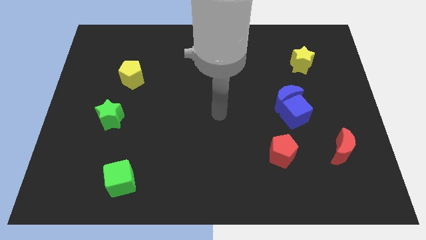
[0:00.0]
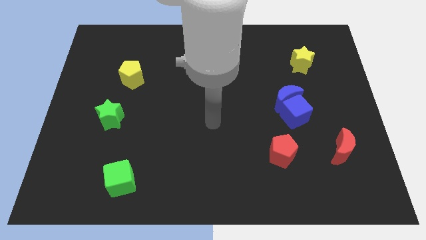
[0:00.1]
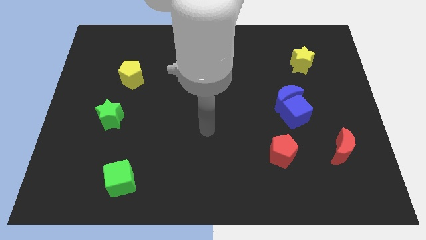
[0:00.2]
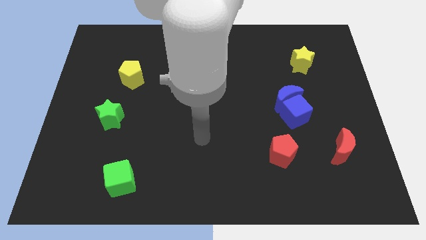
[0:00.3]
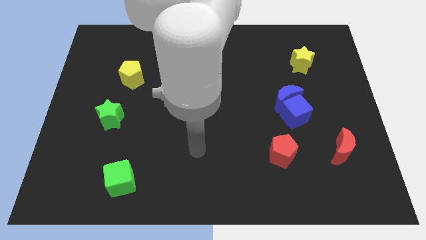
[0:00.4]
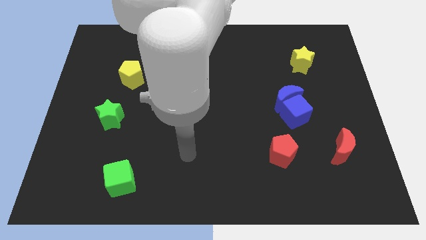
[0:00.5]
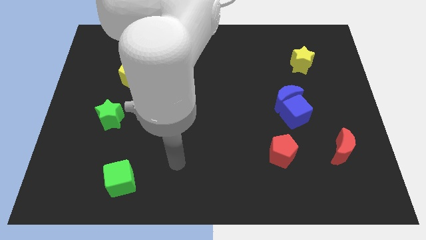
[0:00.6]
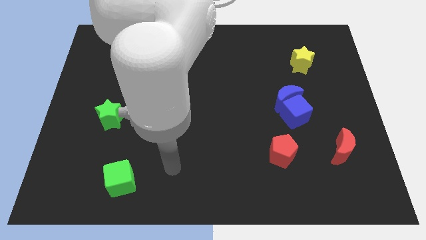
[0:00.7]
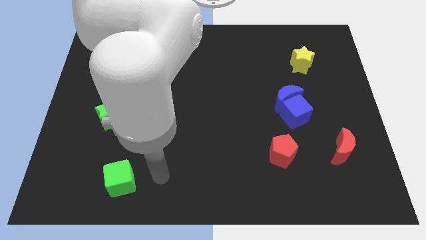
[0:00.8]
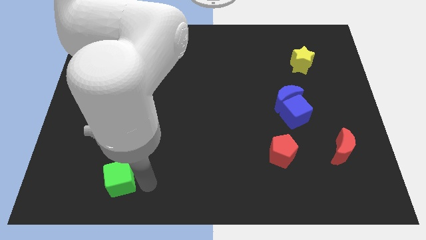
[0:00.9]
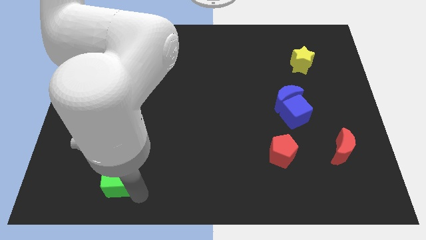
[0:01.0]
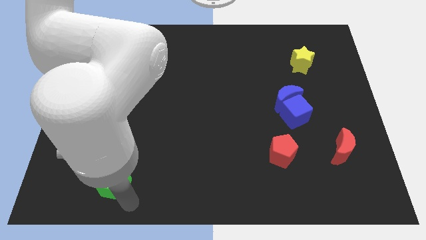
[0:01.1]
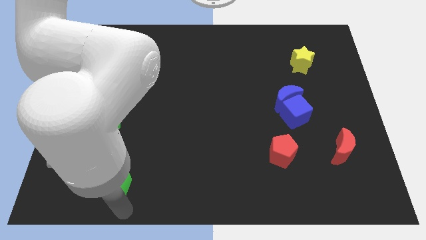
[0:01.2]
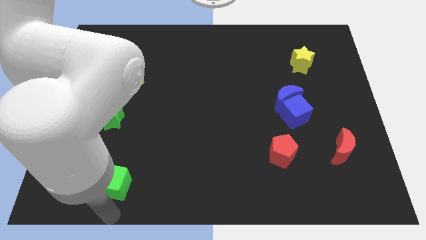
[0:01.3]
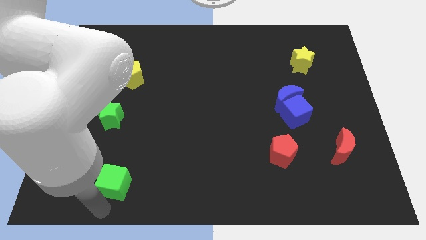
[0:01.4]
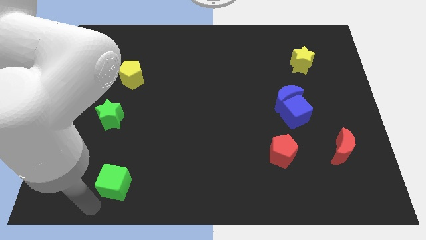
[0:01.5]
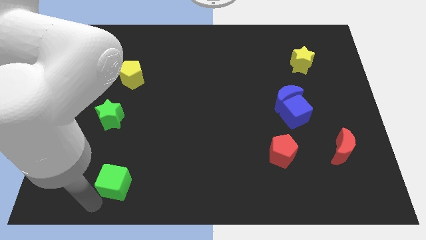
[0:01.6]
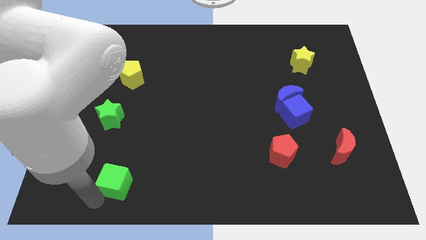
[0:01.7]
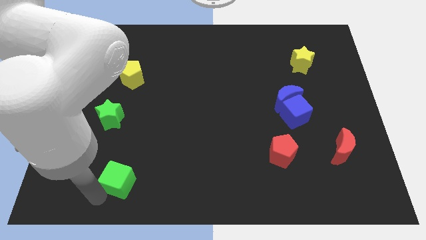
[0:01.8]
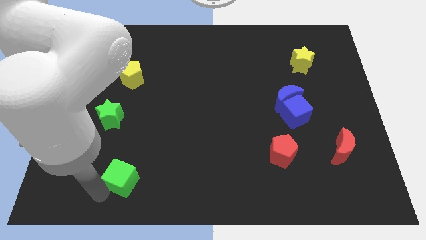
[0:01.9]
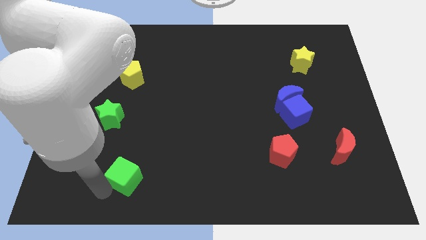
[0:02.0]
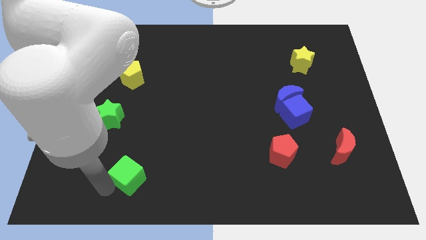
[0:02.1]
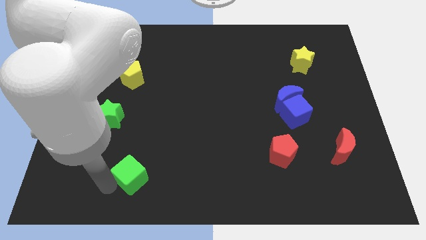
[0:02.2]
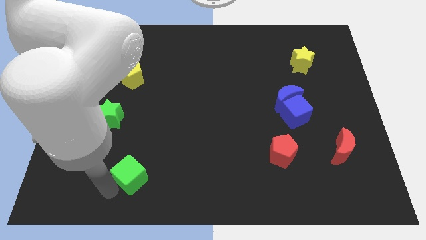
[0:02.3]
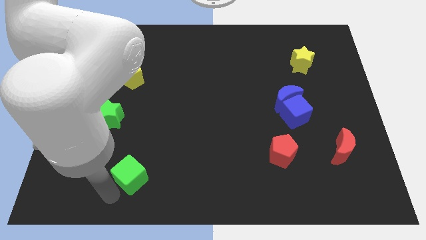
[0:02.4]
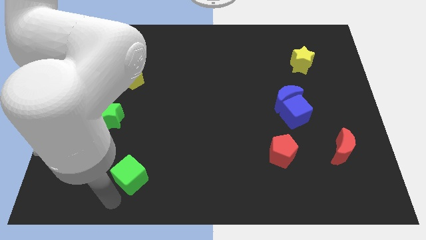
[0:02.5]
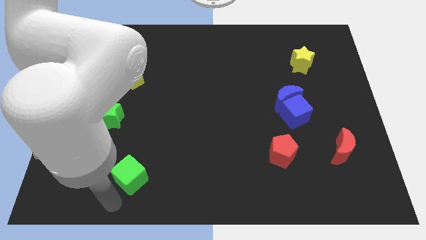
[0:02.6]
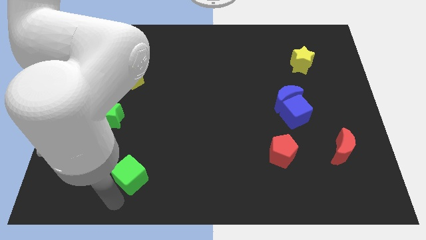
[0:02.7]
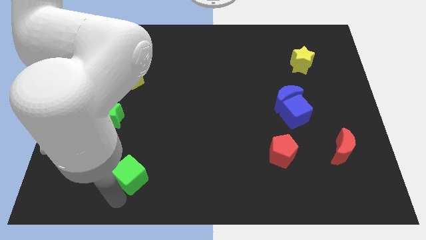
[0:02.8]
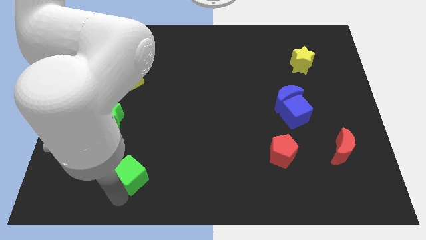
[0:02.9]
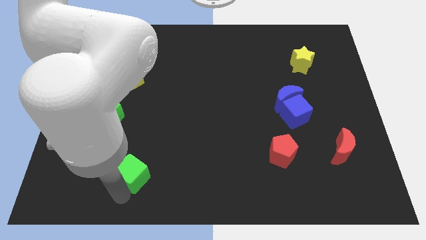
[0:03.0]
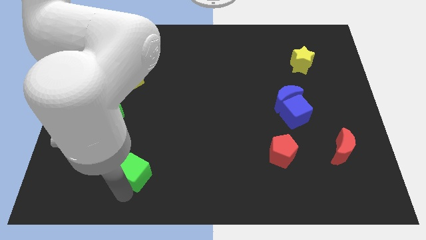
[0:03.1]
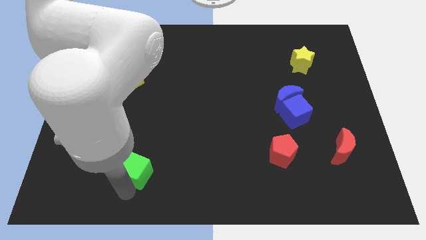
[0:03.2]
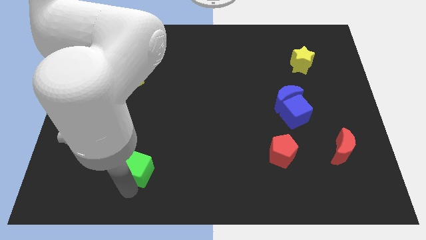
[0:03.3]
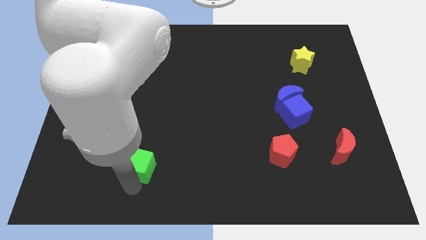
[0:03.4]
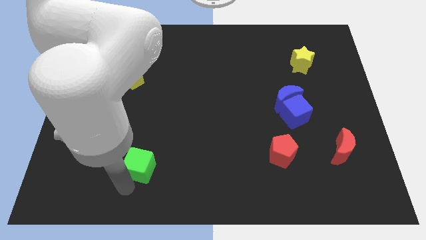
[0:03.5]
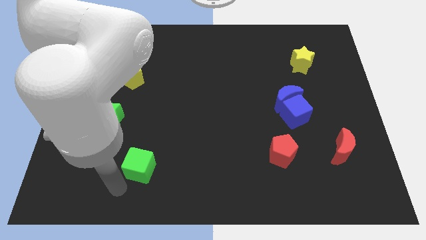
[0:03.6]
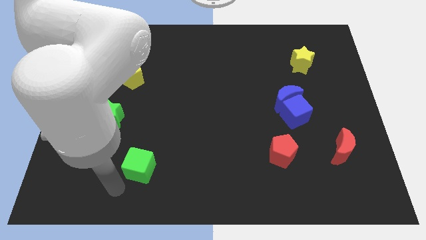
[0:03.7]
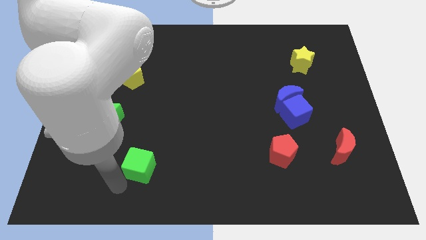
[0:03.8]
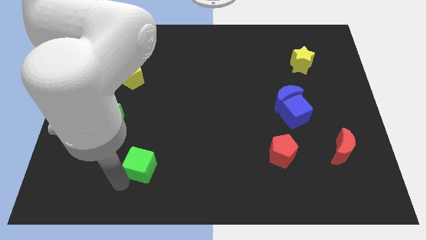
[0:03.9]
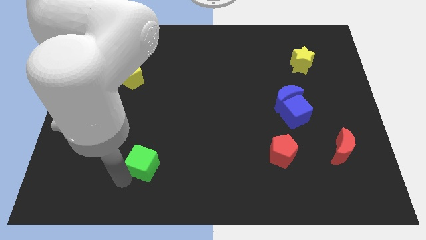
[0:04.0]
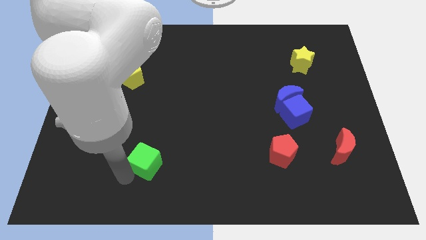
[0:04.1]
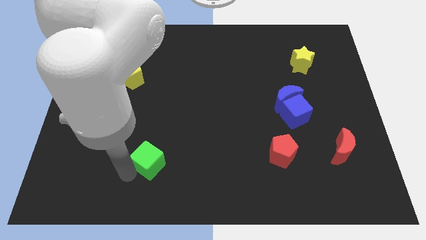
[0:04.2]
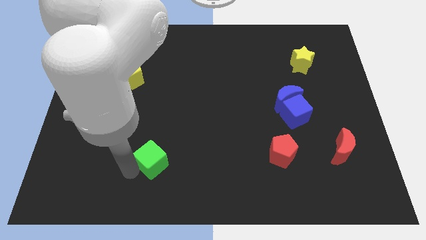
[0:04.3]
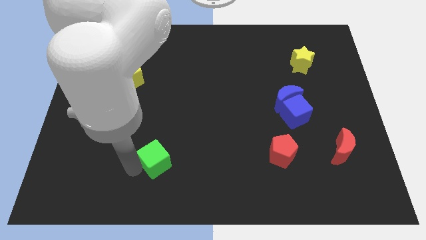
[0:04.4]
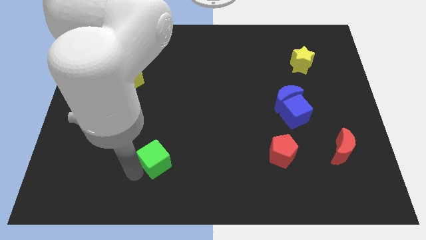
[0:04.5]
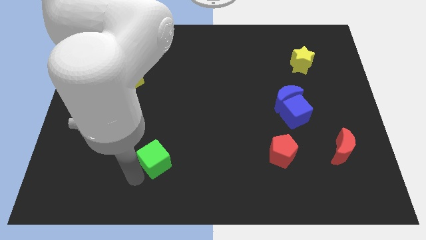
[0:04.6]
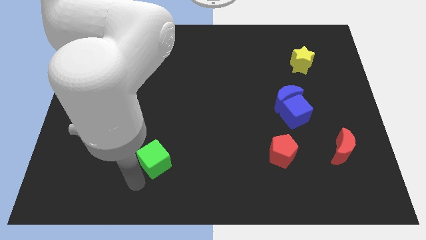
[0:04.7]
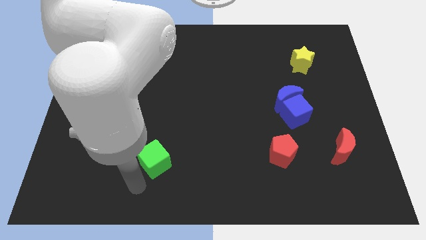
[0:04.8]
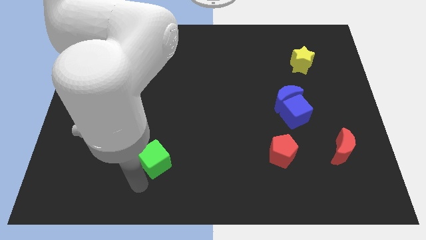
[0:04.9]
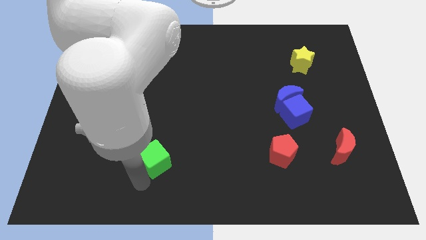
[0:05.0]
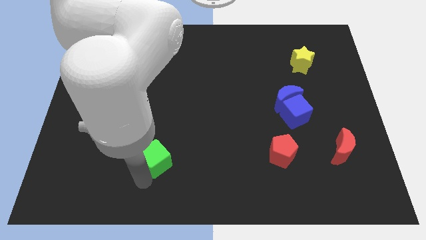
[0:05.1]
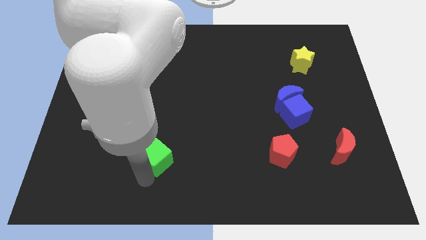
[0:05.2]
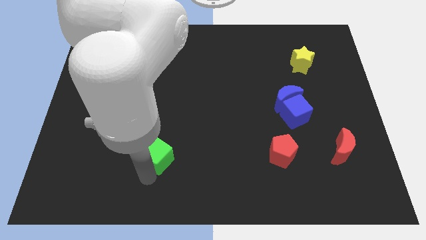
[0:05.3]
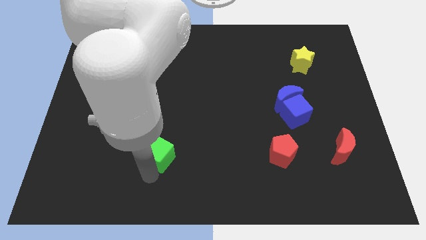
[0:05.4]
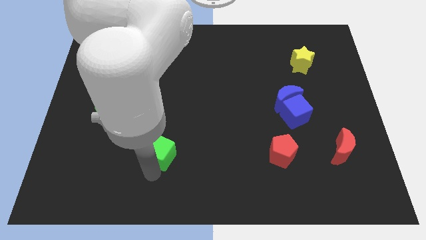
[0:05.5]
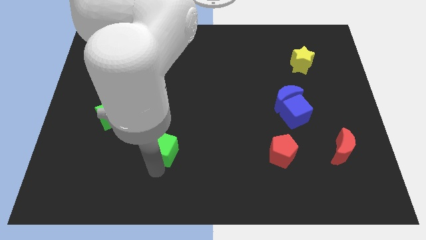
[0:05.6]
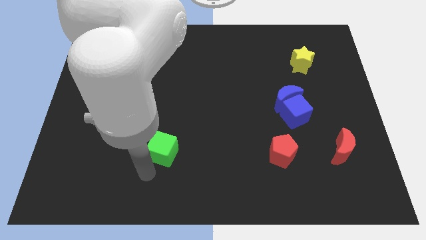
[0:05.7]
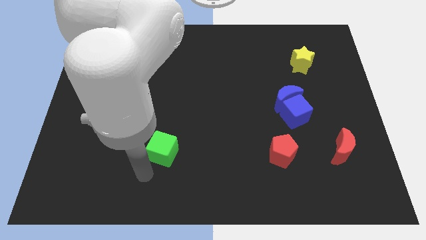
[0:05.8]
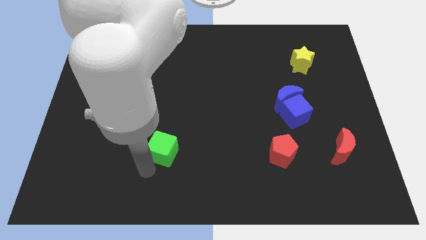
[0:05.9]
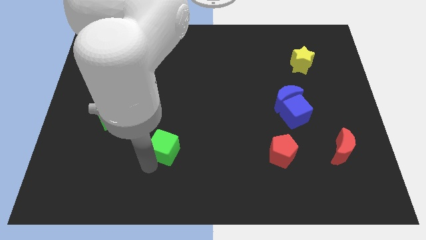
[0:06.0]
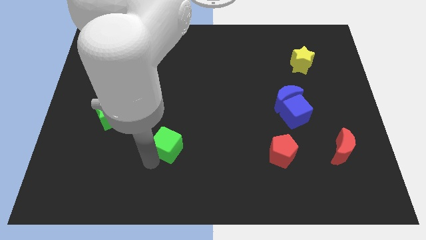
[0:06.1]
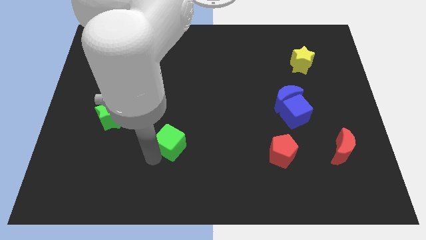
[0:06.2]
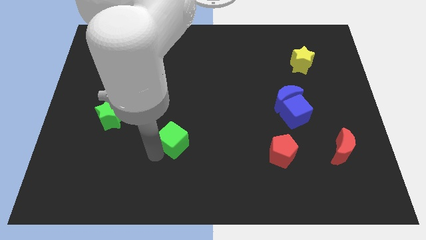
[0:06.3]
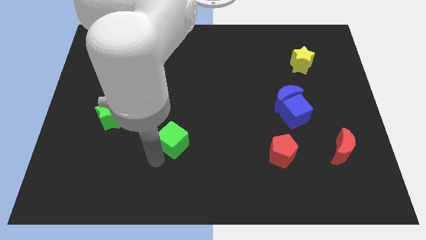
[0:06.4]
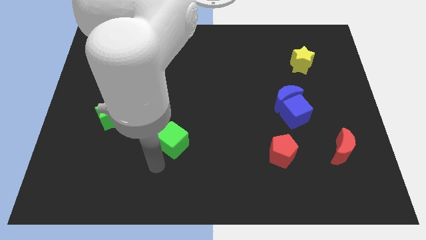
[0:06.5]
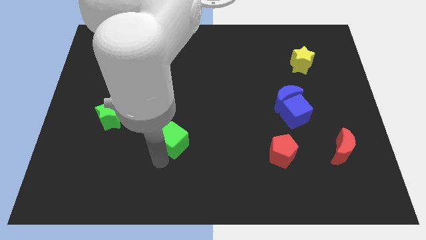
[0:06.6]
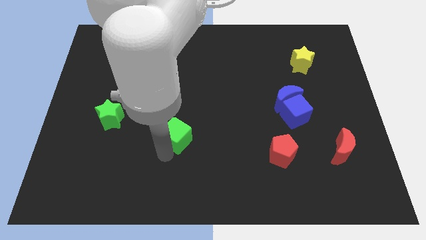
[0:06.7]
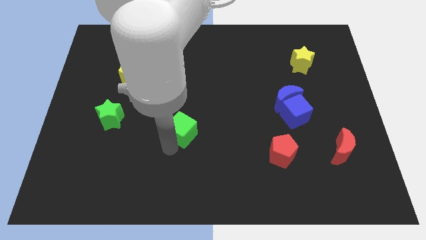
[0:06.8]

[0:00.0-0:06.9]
slide the green cube to the center of the board
